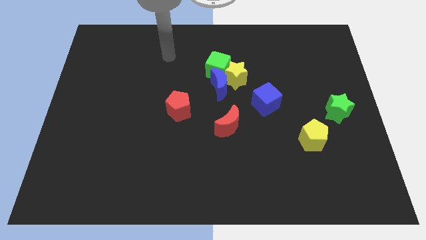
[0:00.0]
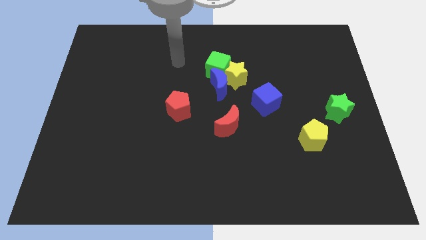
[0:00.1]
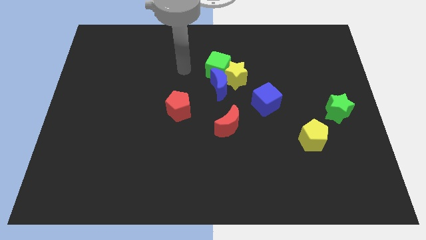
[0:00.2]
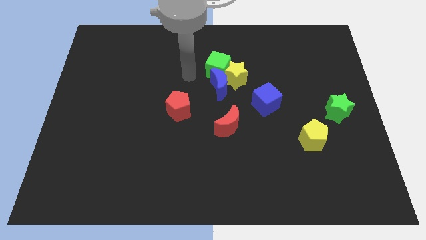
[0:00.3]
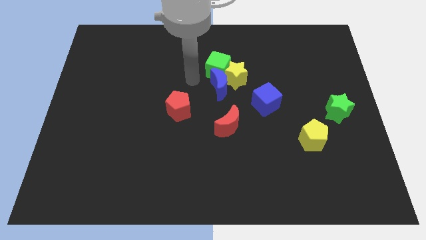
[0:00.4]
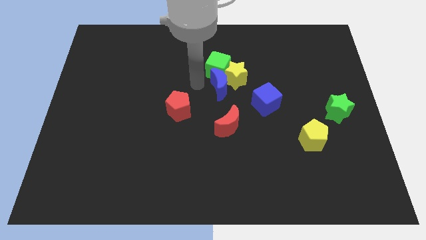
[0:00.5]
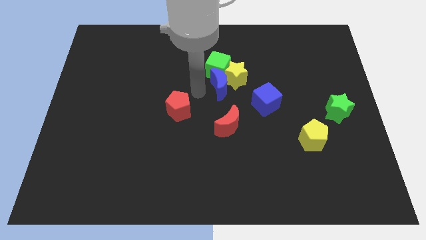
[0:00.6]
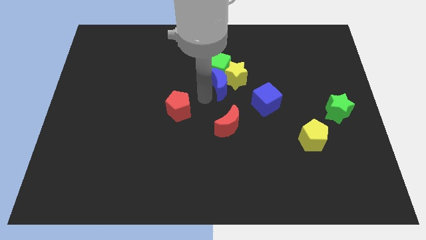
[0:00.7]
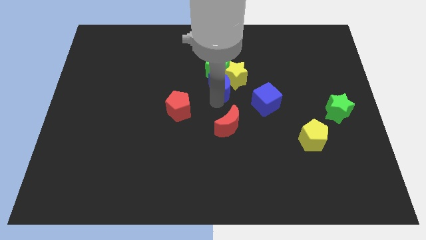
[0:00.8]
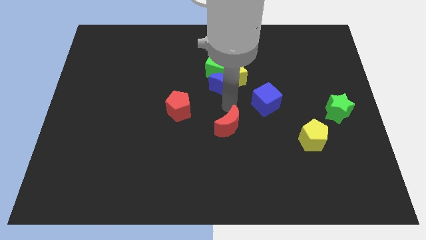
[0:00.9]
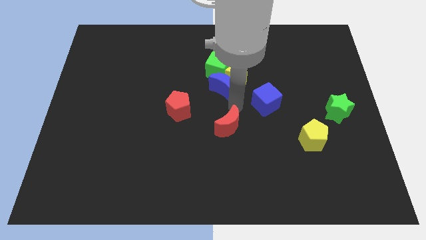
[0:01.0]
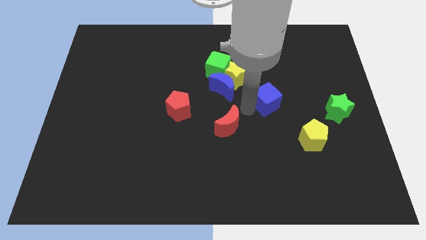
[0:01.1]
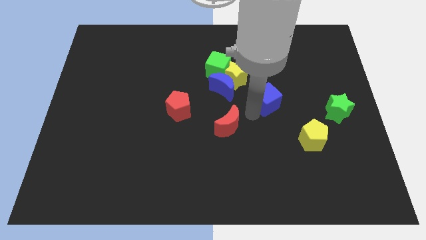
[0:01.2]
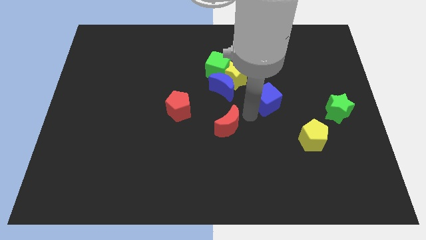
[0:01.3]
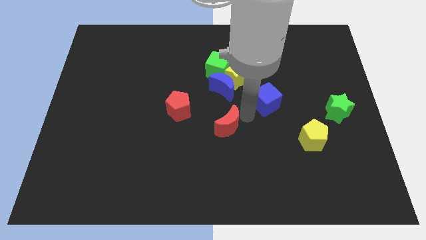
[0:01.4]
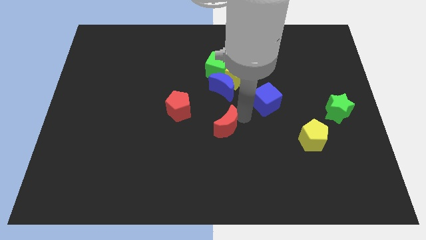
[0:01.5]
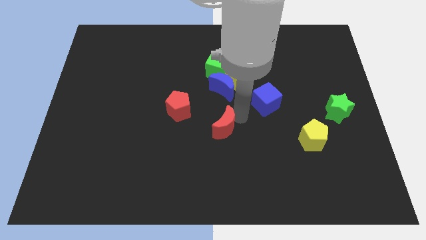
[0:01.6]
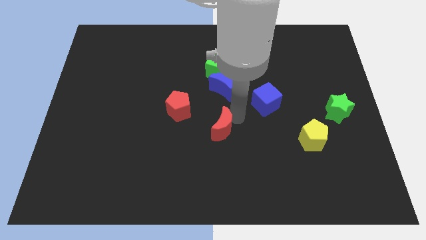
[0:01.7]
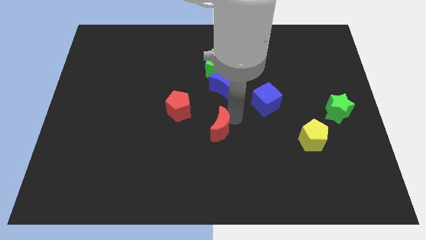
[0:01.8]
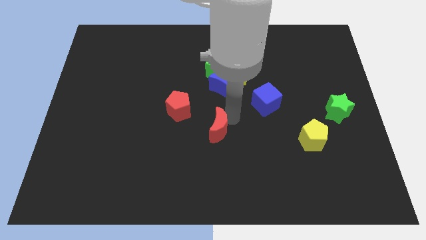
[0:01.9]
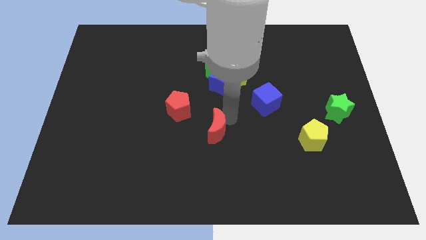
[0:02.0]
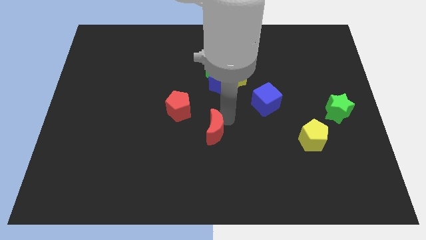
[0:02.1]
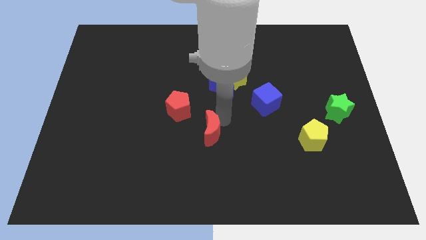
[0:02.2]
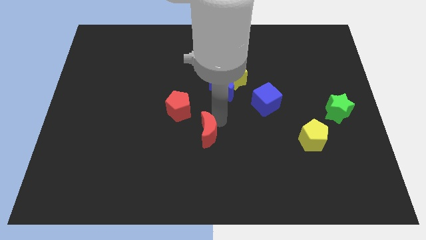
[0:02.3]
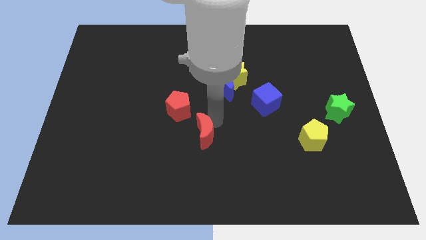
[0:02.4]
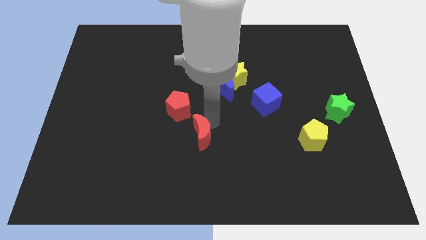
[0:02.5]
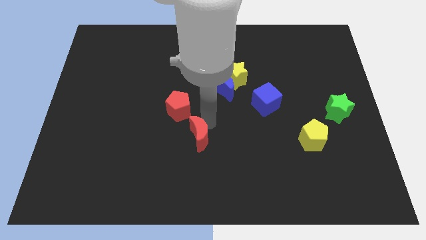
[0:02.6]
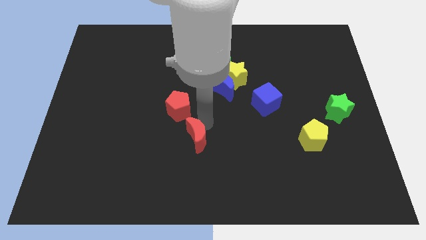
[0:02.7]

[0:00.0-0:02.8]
move the red moon diagonally downwards and left slightly

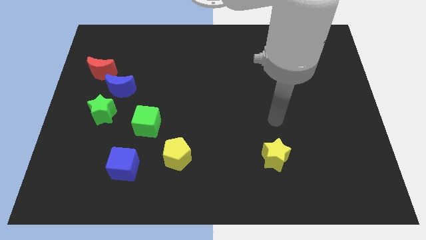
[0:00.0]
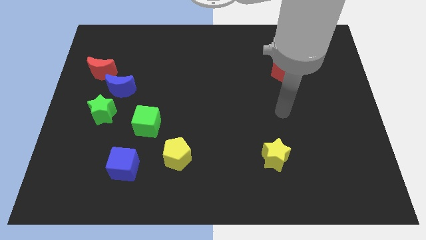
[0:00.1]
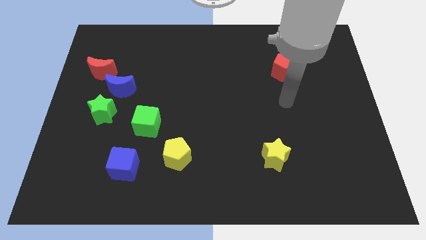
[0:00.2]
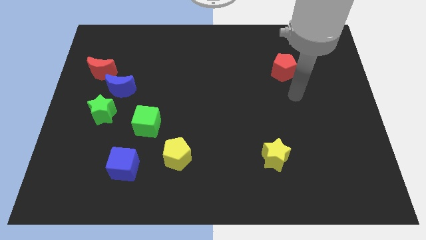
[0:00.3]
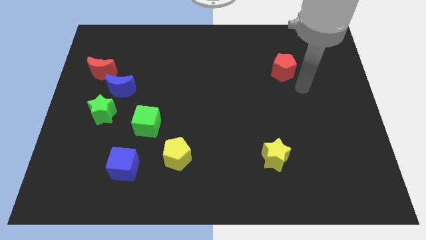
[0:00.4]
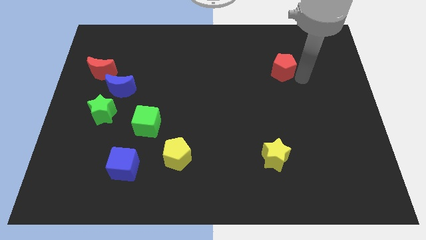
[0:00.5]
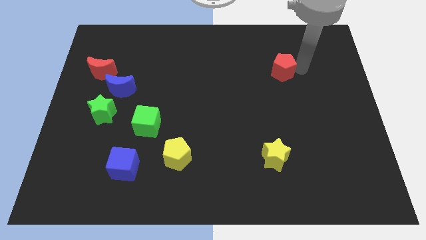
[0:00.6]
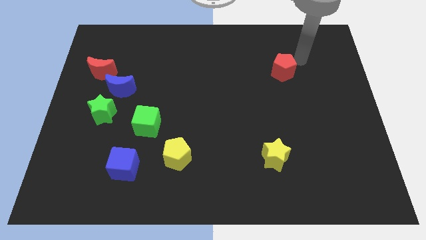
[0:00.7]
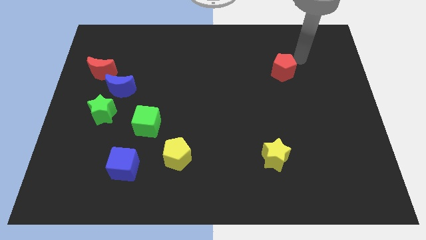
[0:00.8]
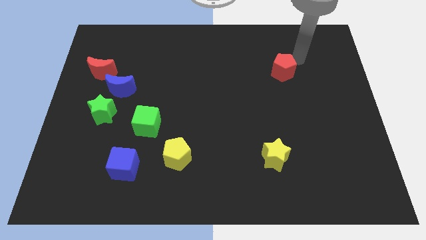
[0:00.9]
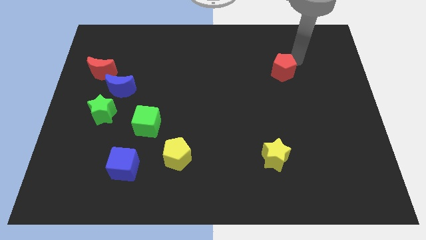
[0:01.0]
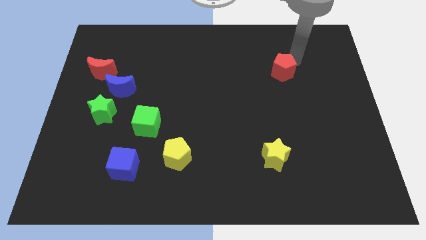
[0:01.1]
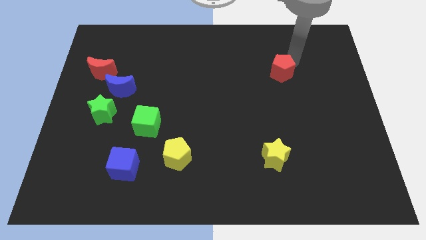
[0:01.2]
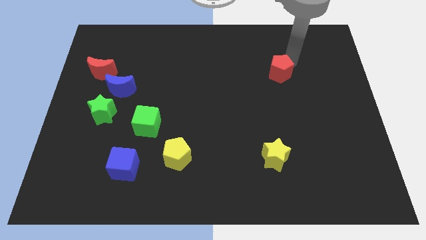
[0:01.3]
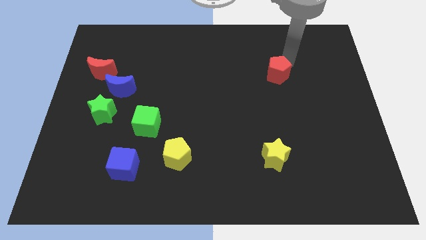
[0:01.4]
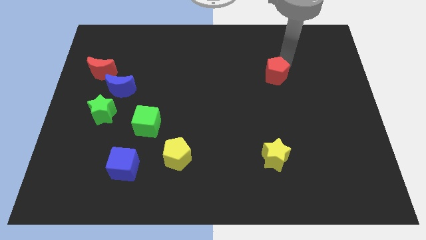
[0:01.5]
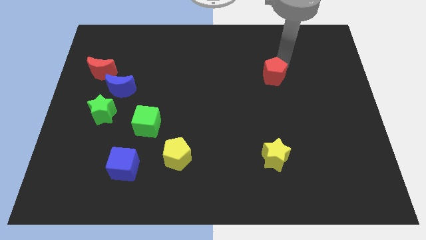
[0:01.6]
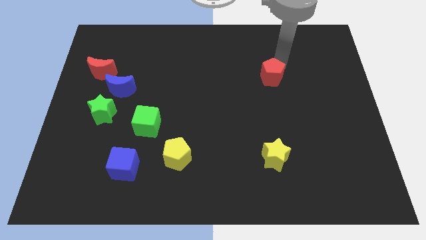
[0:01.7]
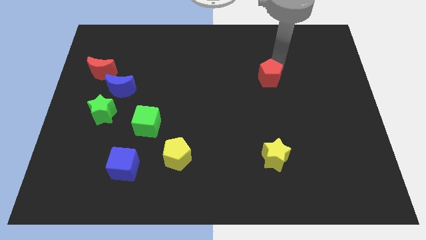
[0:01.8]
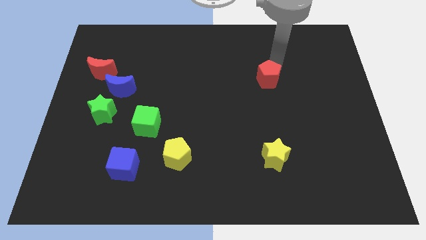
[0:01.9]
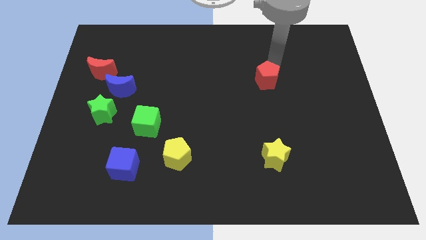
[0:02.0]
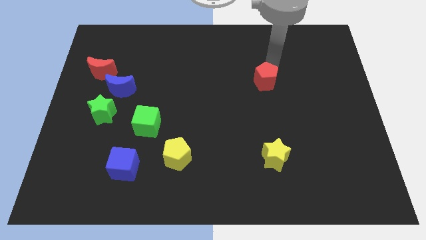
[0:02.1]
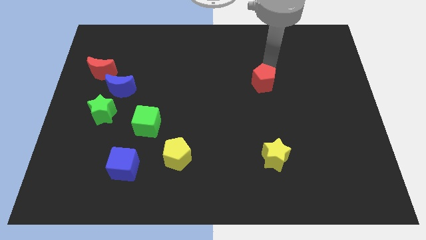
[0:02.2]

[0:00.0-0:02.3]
slightly slide the red pentagon down and left diagonally

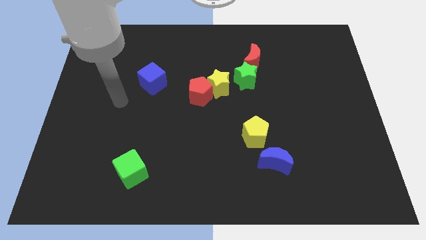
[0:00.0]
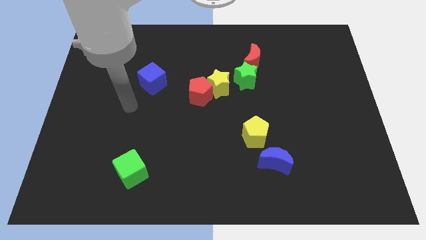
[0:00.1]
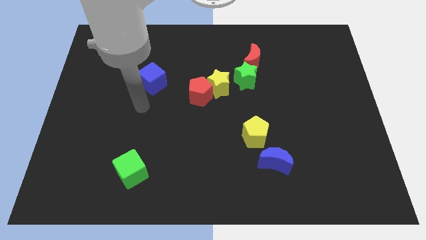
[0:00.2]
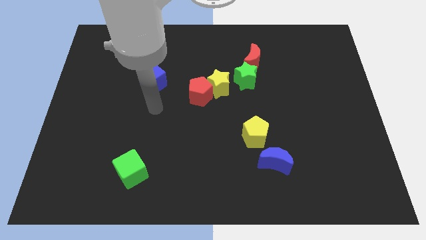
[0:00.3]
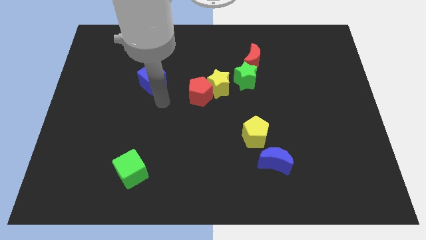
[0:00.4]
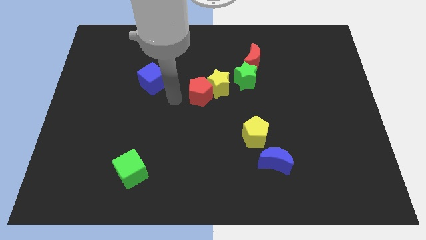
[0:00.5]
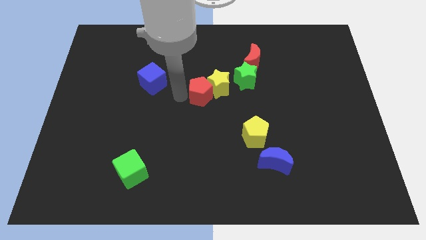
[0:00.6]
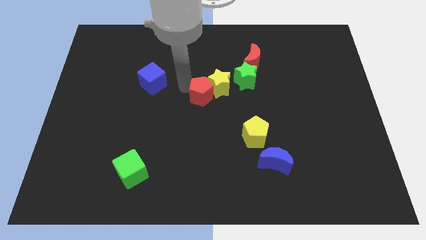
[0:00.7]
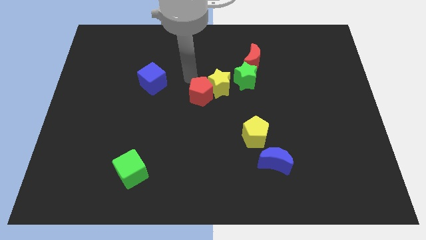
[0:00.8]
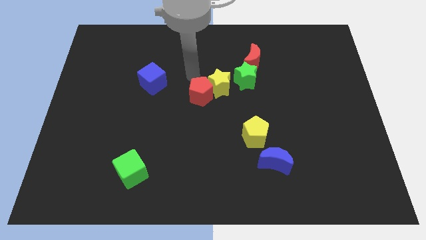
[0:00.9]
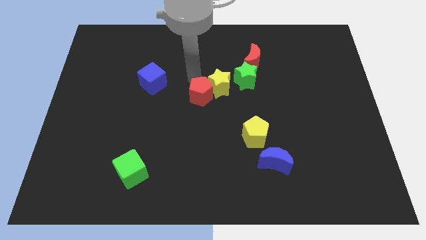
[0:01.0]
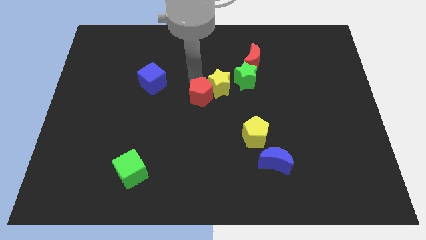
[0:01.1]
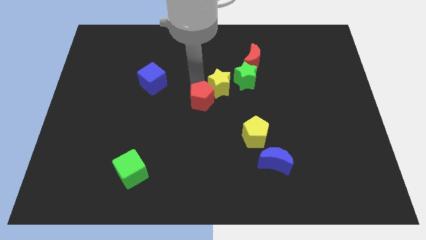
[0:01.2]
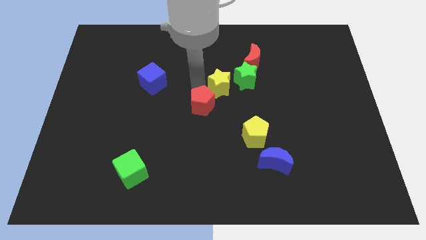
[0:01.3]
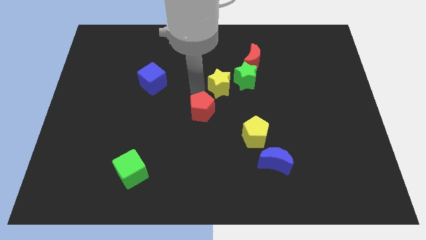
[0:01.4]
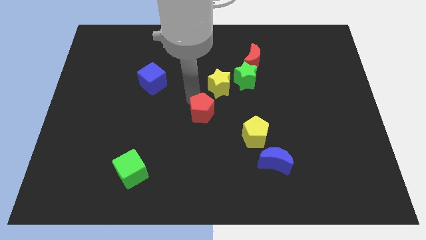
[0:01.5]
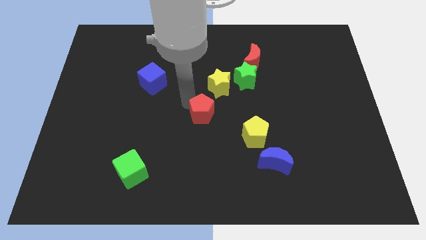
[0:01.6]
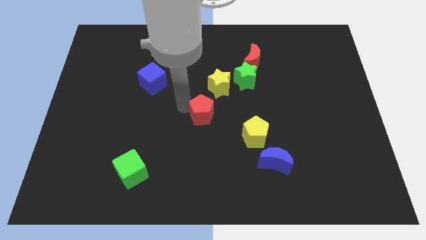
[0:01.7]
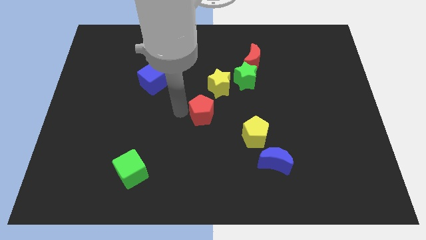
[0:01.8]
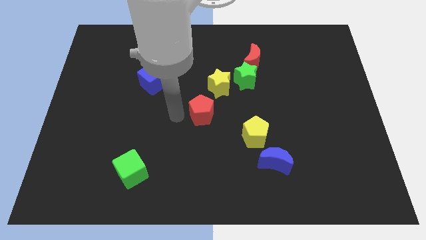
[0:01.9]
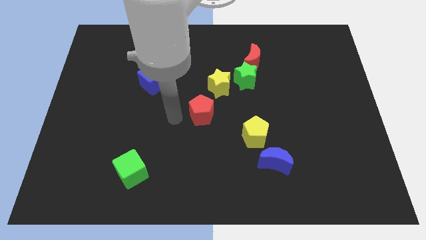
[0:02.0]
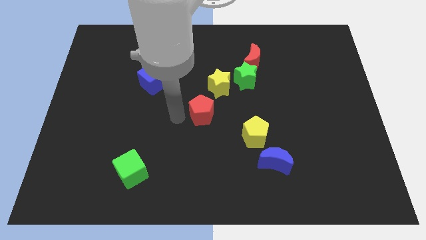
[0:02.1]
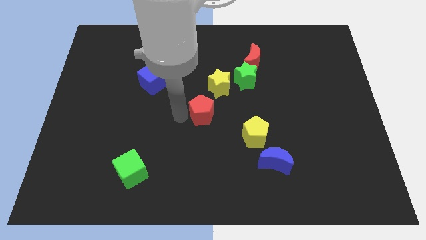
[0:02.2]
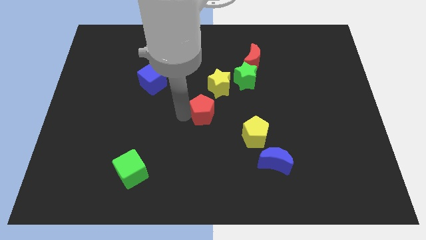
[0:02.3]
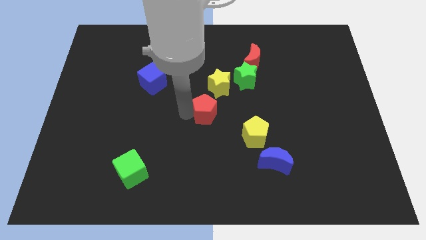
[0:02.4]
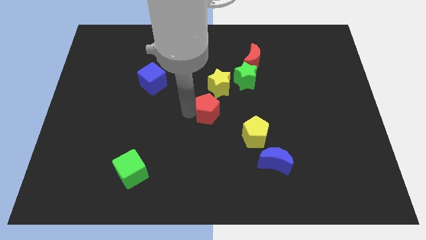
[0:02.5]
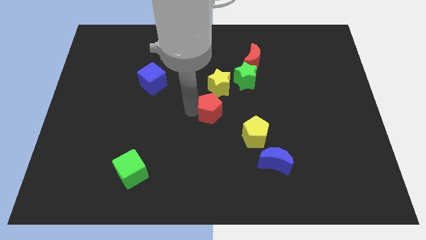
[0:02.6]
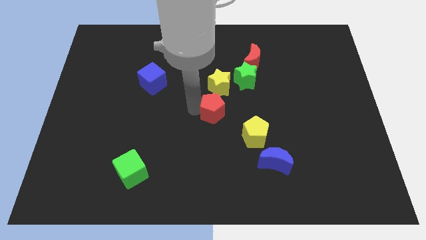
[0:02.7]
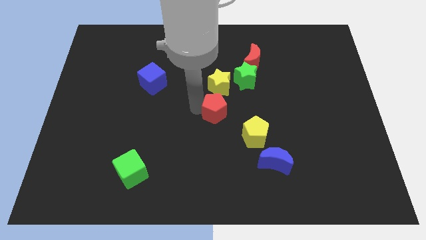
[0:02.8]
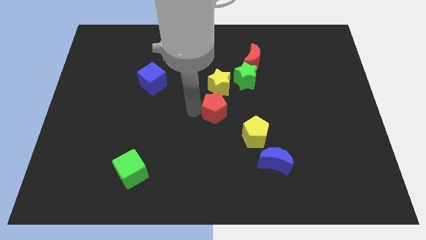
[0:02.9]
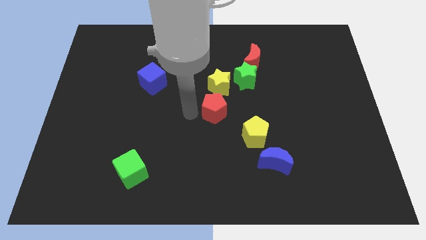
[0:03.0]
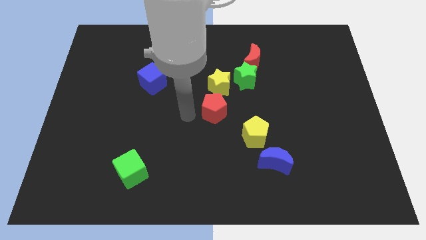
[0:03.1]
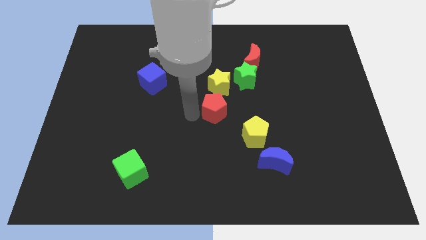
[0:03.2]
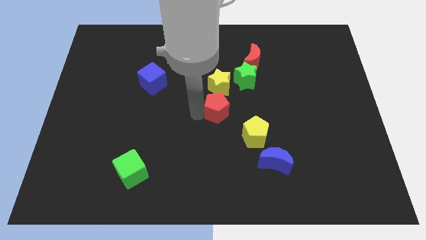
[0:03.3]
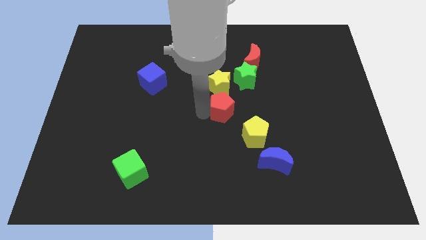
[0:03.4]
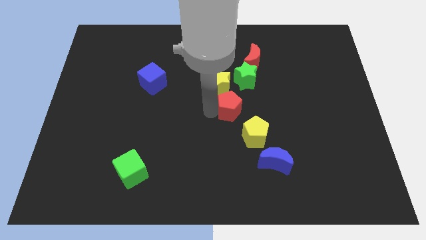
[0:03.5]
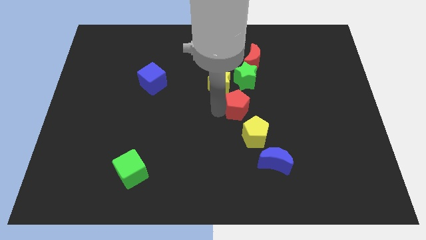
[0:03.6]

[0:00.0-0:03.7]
slide the red pentagon right somewhat
